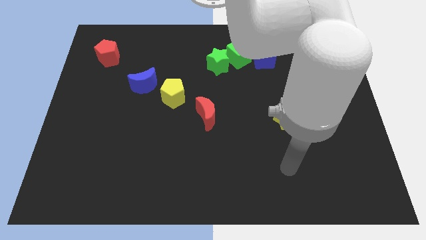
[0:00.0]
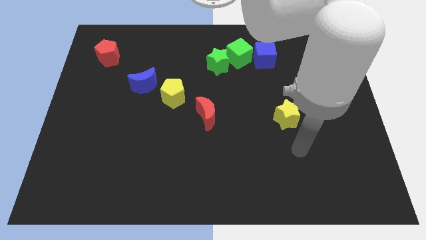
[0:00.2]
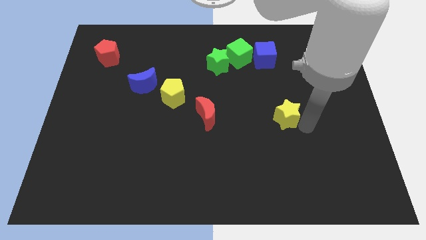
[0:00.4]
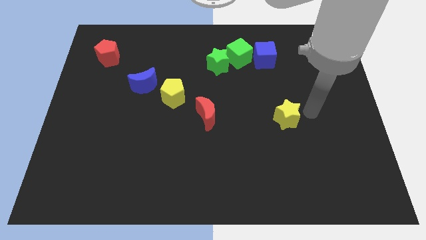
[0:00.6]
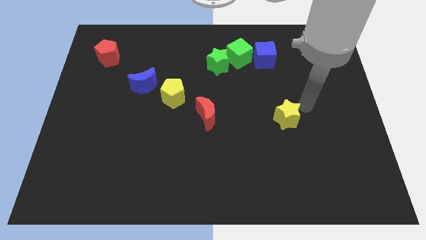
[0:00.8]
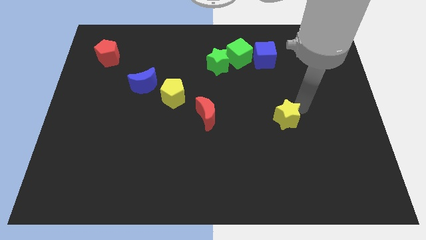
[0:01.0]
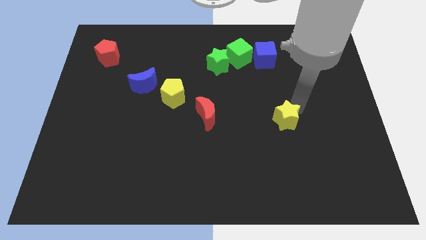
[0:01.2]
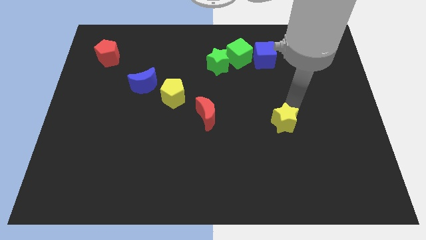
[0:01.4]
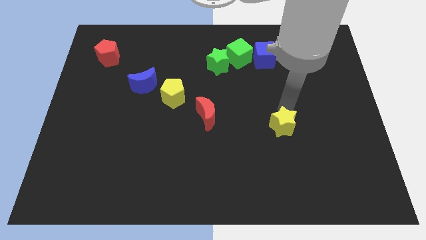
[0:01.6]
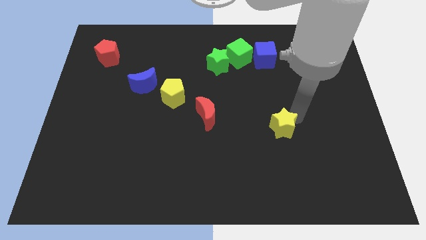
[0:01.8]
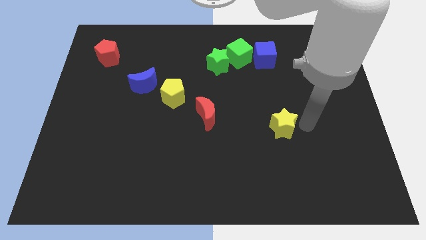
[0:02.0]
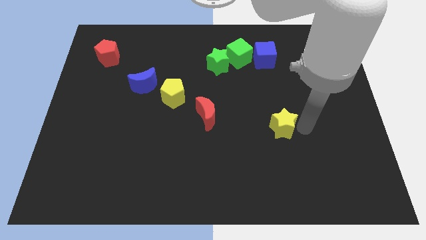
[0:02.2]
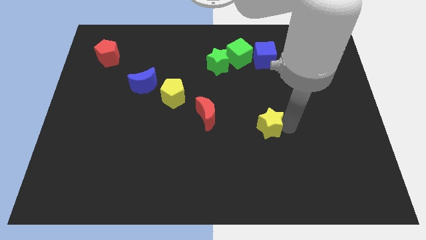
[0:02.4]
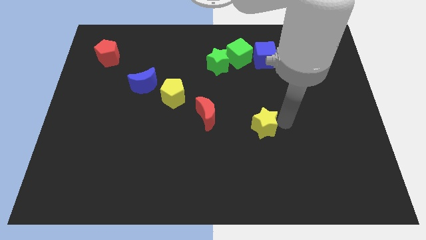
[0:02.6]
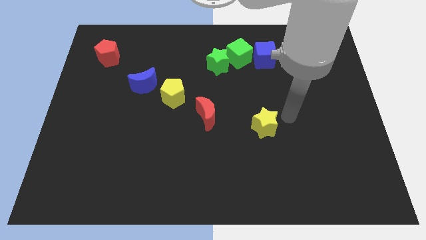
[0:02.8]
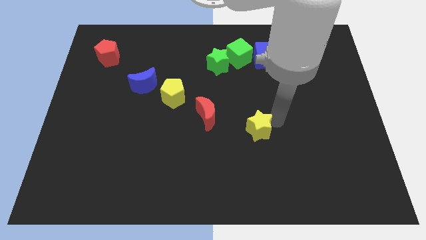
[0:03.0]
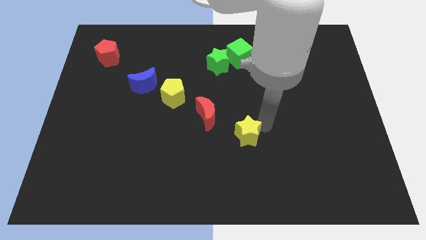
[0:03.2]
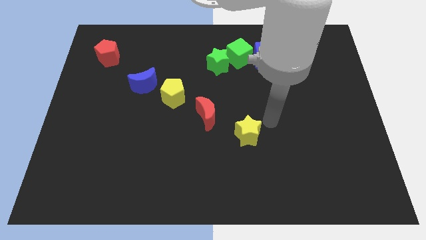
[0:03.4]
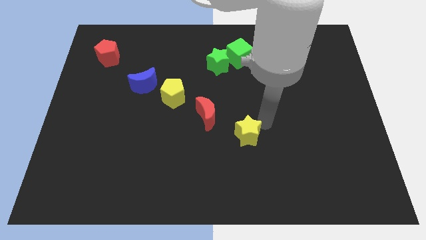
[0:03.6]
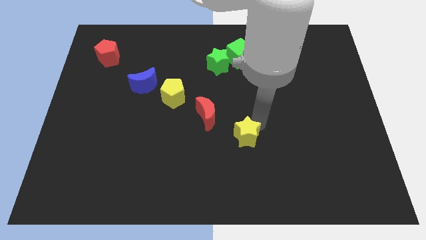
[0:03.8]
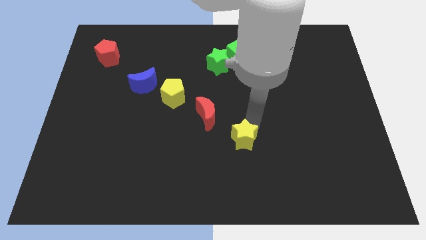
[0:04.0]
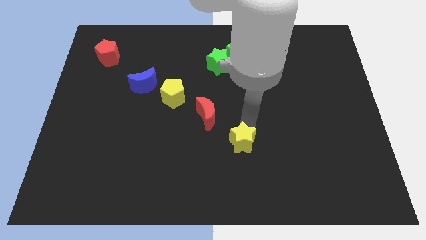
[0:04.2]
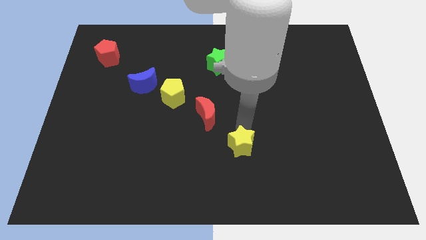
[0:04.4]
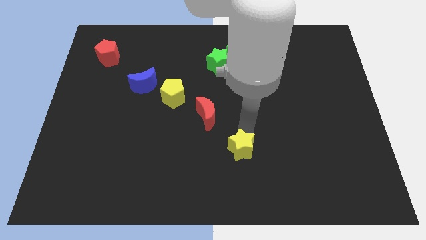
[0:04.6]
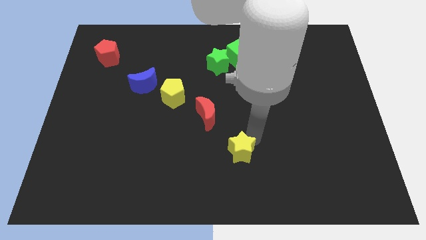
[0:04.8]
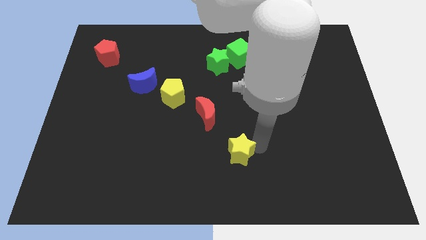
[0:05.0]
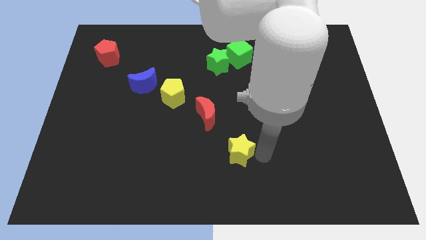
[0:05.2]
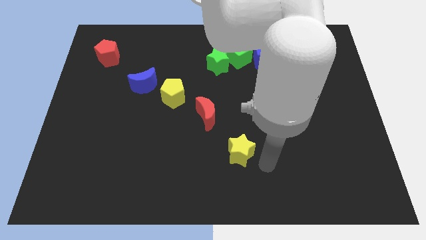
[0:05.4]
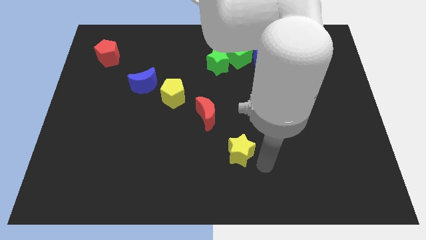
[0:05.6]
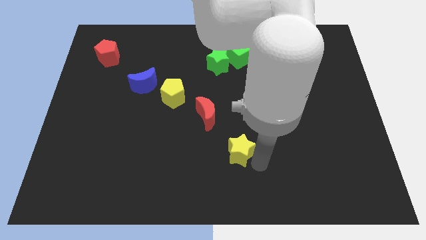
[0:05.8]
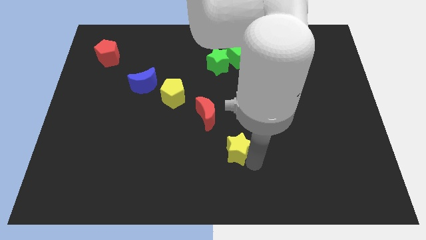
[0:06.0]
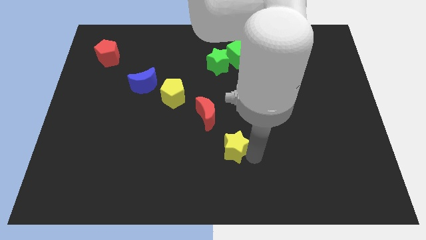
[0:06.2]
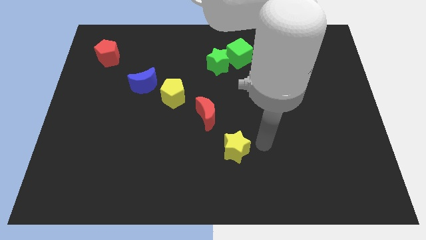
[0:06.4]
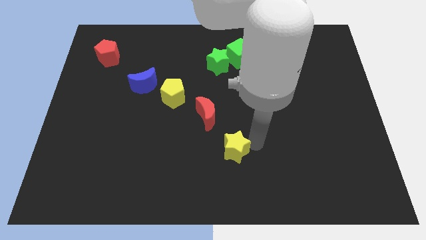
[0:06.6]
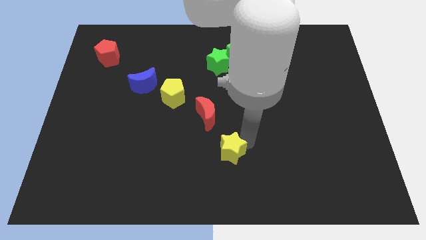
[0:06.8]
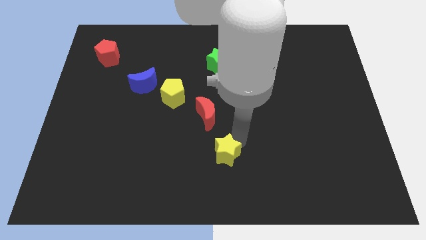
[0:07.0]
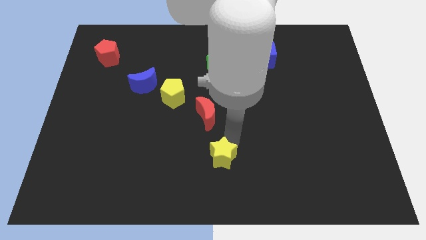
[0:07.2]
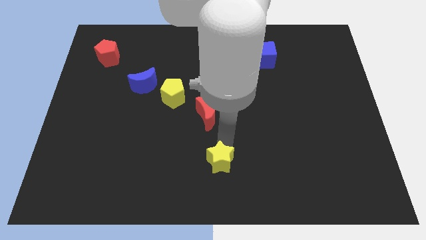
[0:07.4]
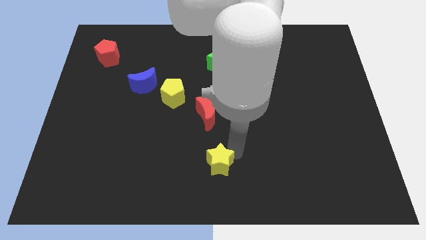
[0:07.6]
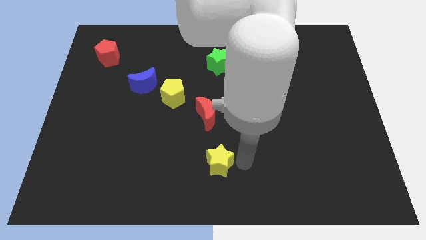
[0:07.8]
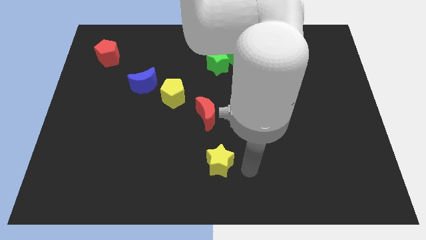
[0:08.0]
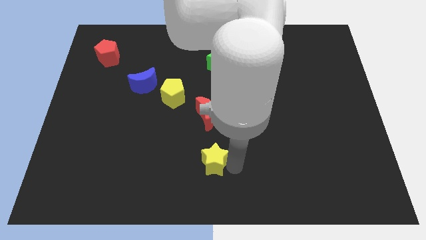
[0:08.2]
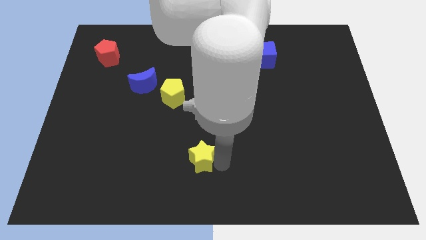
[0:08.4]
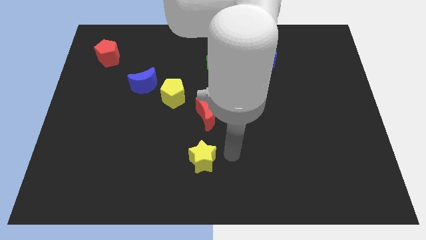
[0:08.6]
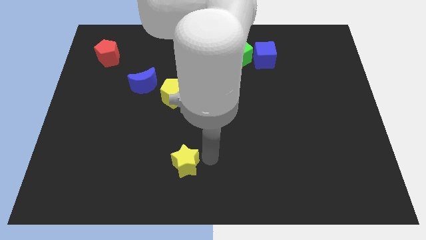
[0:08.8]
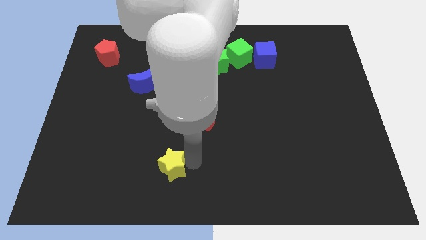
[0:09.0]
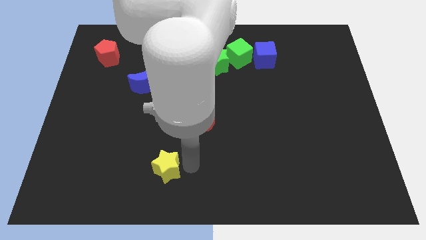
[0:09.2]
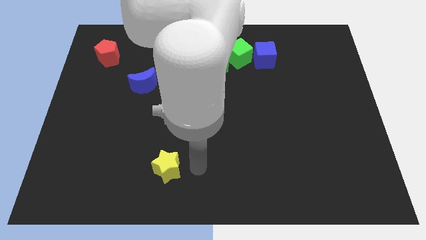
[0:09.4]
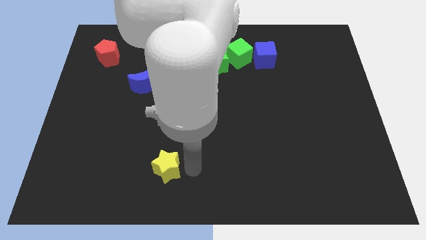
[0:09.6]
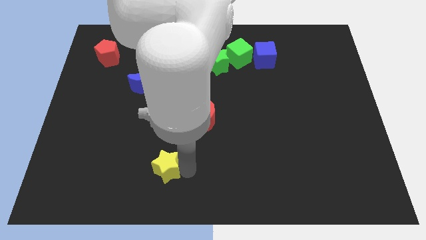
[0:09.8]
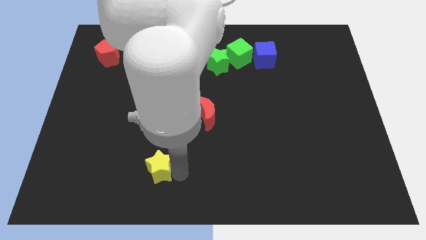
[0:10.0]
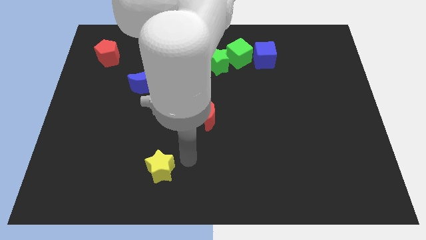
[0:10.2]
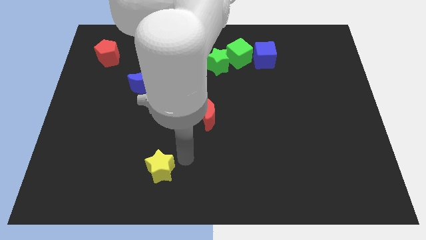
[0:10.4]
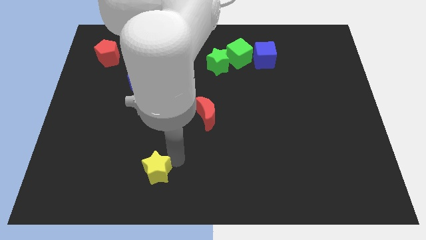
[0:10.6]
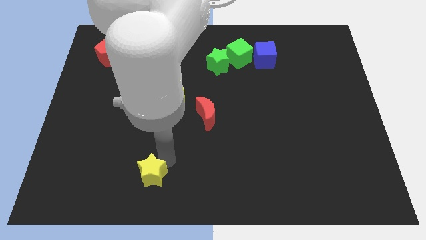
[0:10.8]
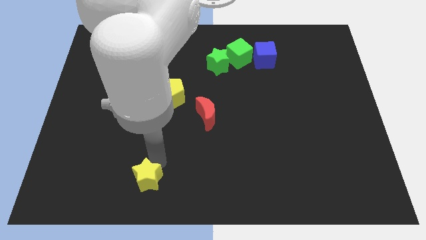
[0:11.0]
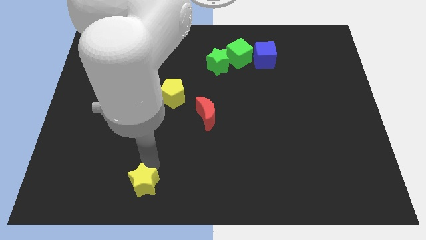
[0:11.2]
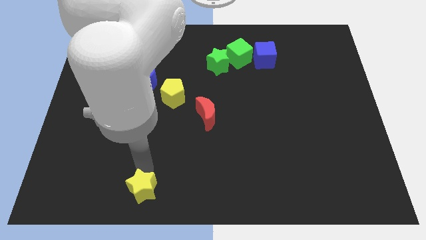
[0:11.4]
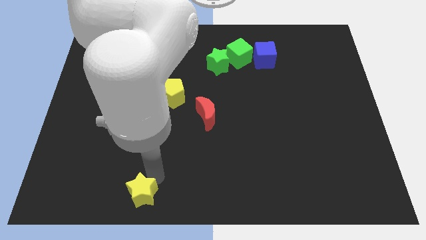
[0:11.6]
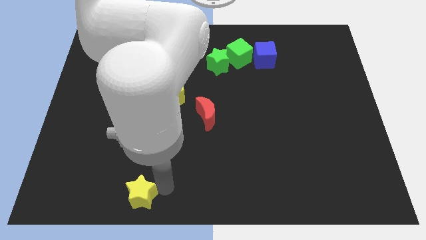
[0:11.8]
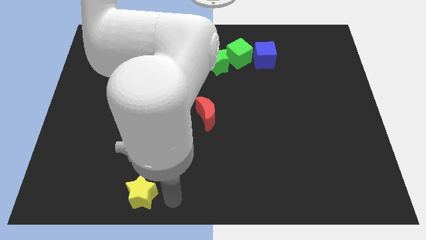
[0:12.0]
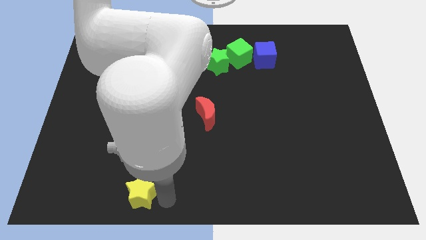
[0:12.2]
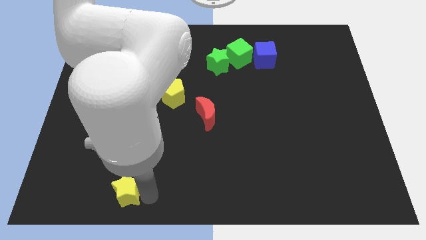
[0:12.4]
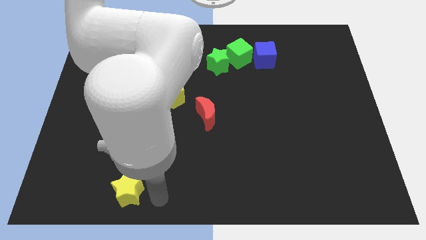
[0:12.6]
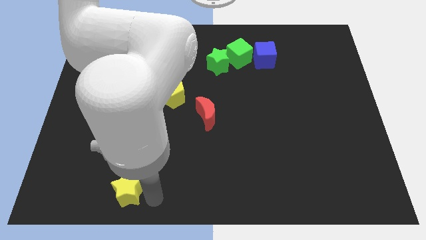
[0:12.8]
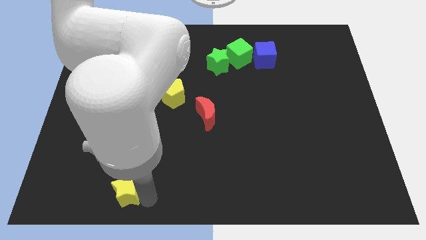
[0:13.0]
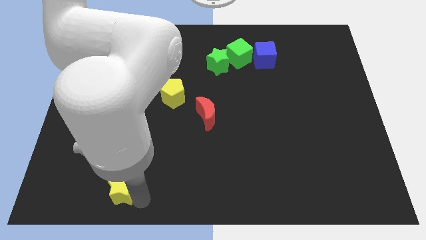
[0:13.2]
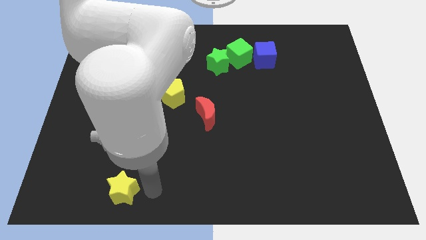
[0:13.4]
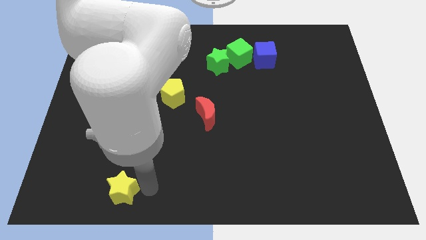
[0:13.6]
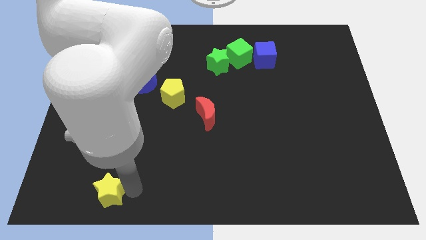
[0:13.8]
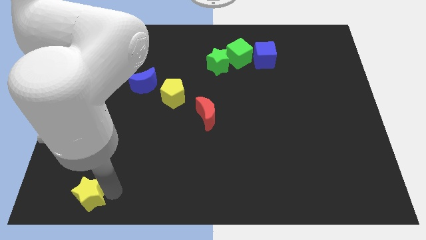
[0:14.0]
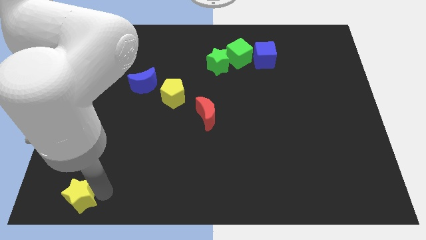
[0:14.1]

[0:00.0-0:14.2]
move the yellow star to the bottom left of the board

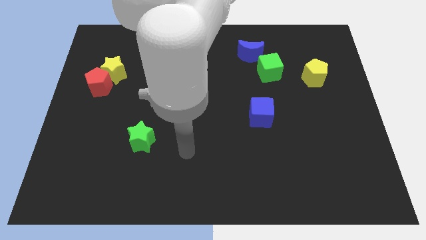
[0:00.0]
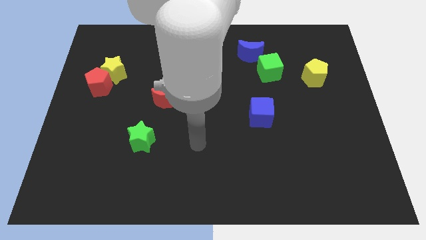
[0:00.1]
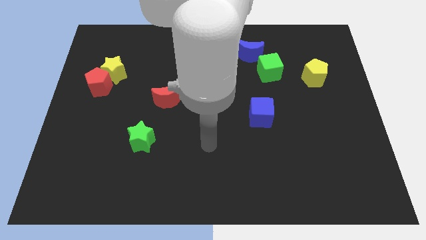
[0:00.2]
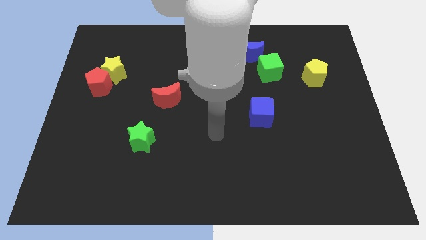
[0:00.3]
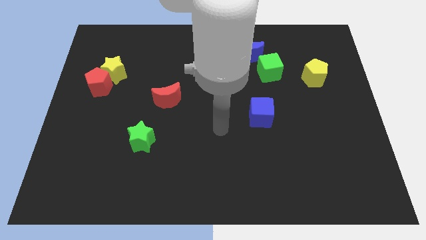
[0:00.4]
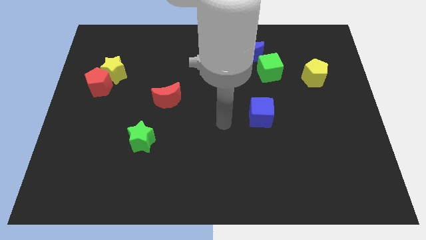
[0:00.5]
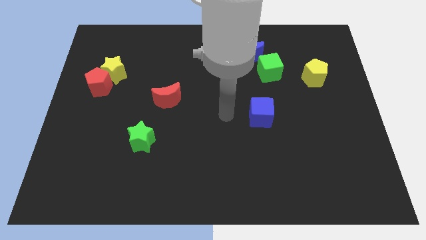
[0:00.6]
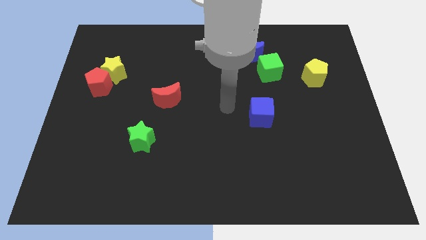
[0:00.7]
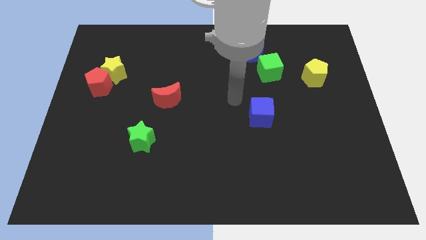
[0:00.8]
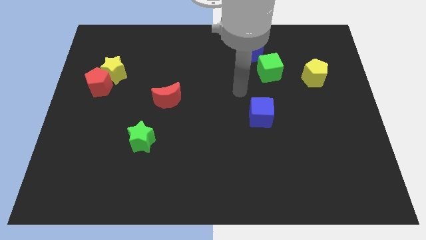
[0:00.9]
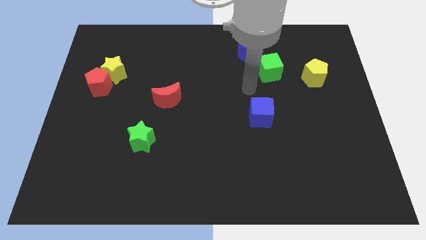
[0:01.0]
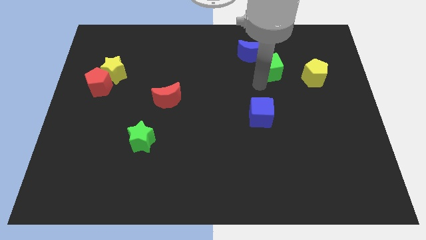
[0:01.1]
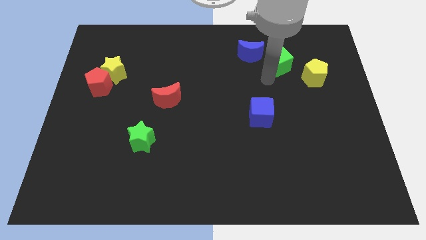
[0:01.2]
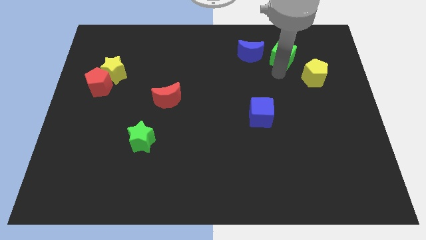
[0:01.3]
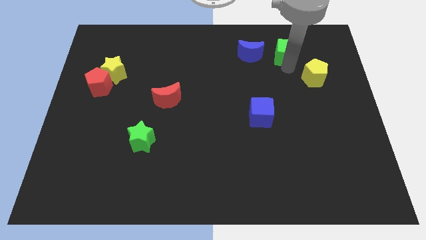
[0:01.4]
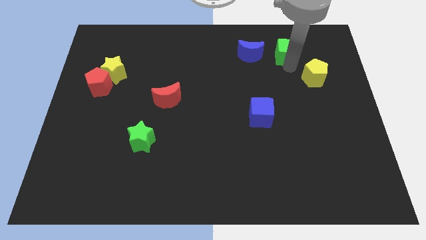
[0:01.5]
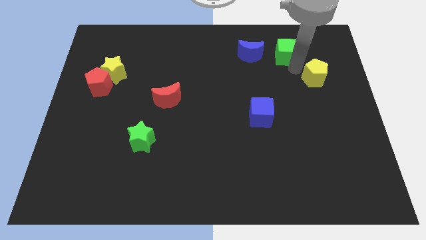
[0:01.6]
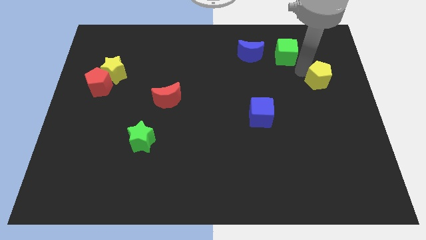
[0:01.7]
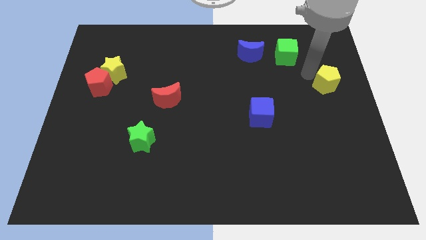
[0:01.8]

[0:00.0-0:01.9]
slide the yellow pentagon to the center right
